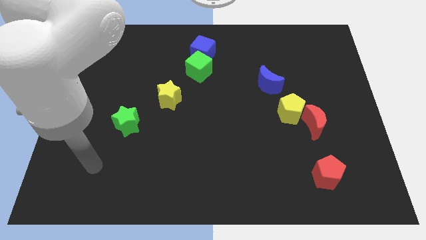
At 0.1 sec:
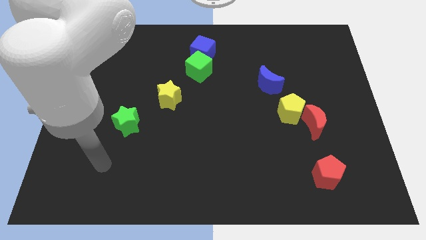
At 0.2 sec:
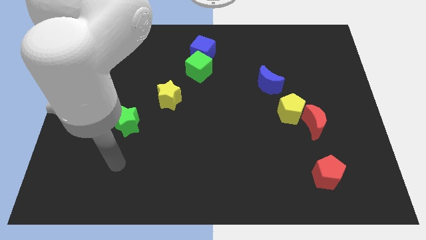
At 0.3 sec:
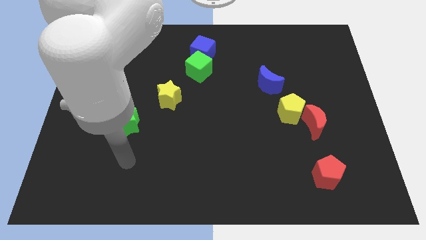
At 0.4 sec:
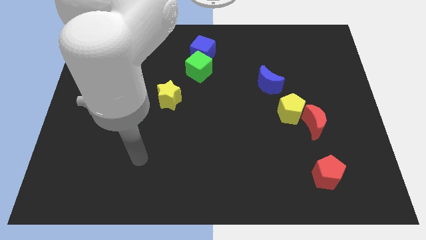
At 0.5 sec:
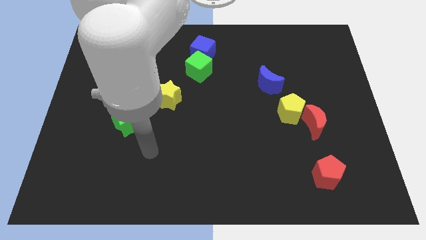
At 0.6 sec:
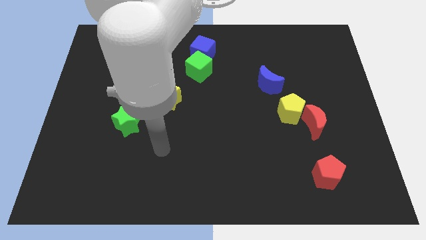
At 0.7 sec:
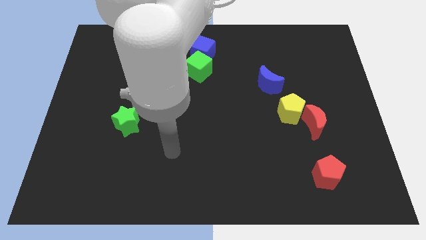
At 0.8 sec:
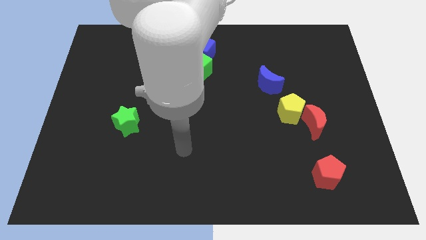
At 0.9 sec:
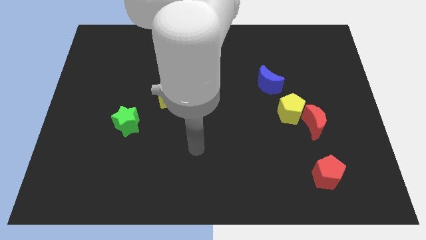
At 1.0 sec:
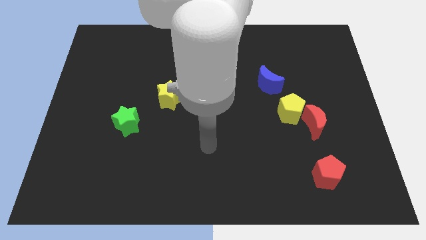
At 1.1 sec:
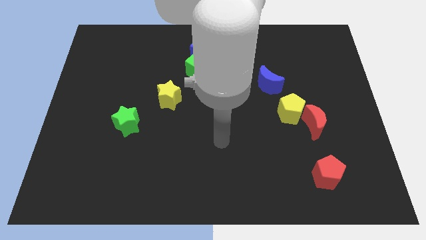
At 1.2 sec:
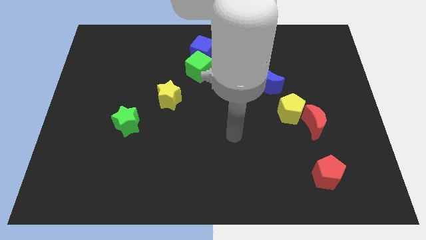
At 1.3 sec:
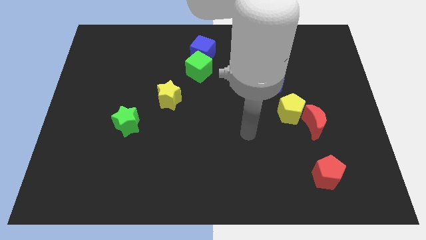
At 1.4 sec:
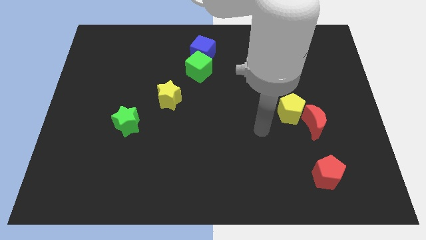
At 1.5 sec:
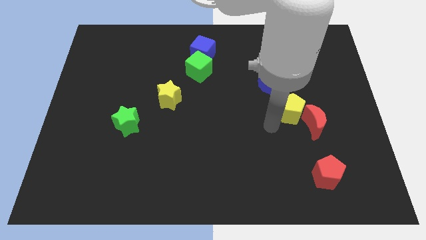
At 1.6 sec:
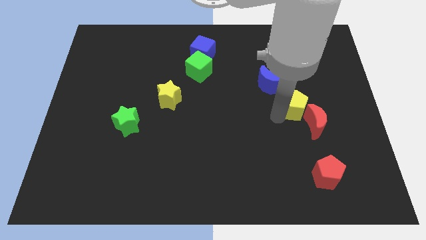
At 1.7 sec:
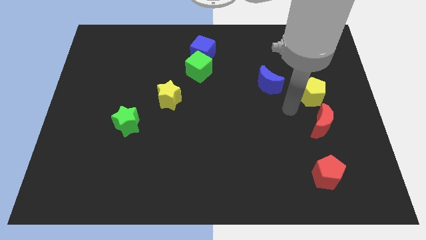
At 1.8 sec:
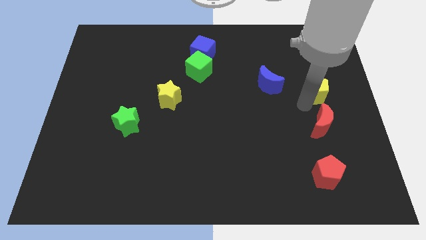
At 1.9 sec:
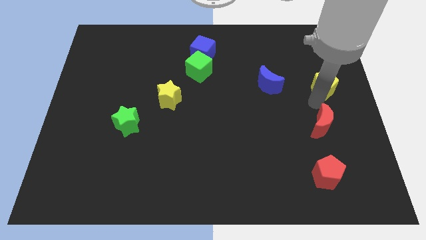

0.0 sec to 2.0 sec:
pull the red moon apart from the yellow pentagon

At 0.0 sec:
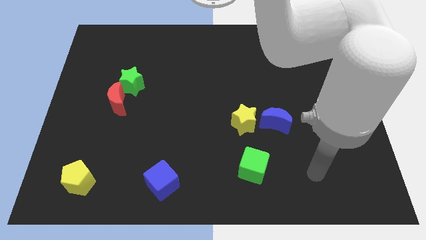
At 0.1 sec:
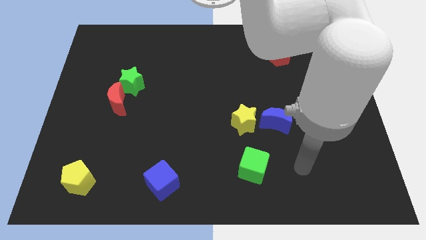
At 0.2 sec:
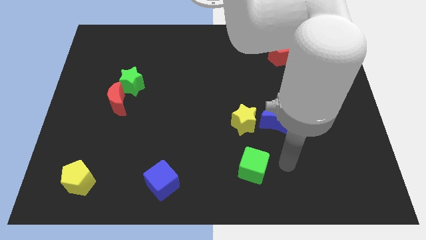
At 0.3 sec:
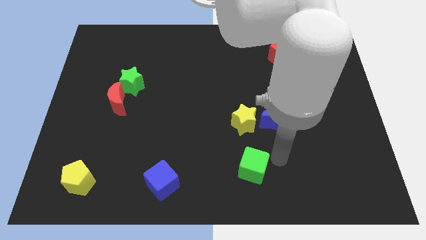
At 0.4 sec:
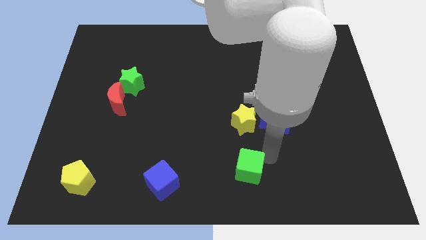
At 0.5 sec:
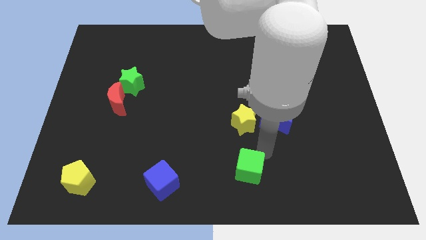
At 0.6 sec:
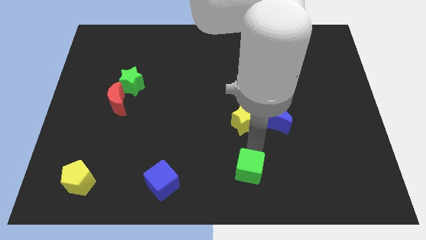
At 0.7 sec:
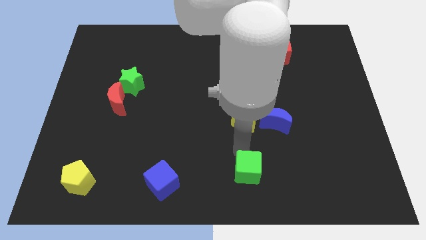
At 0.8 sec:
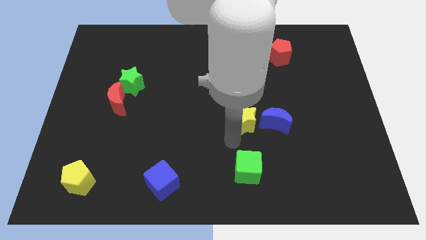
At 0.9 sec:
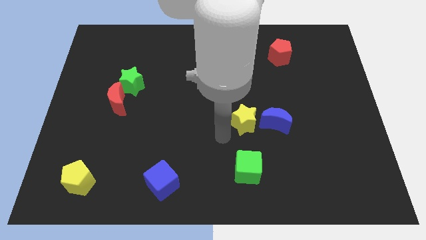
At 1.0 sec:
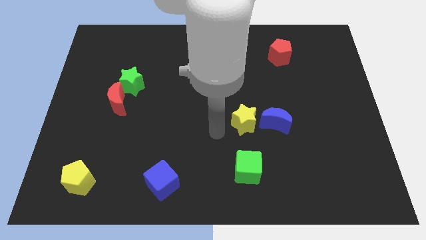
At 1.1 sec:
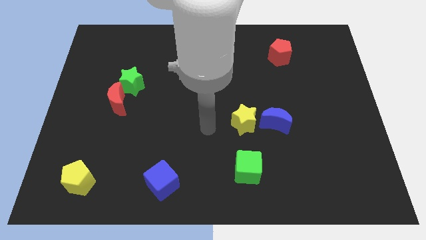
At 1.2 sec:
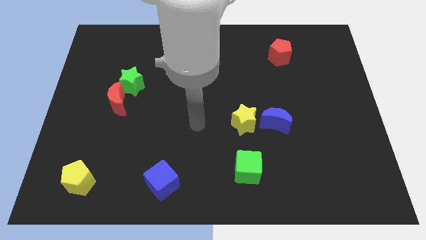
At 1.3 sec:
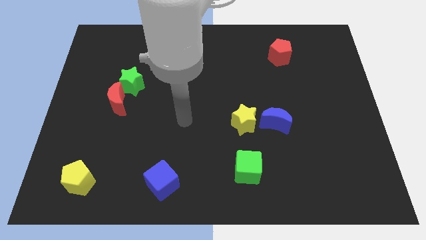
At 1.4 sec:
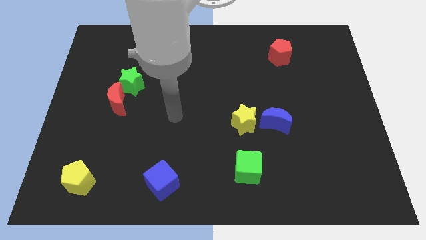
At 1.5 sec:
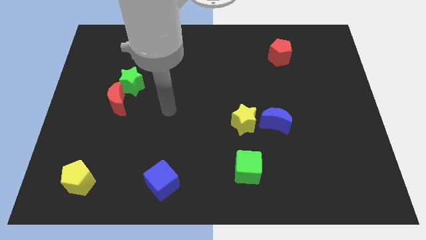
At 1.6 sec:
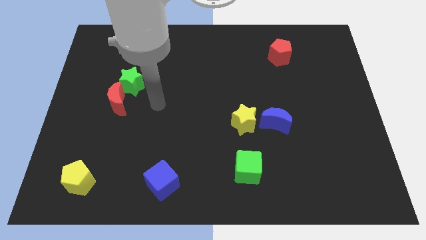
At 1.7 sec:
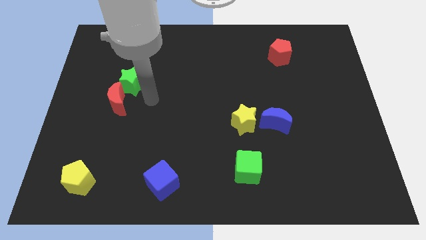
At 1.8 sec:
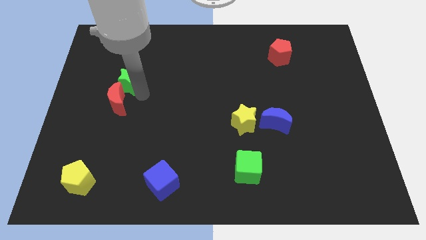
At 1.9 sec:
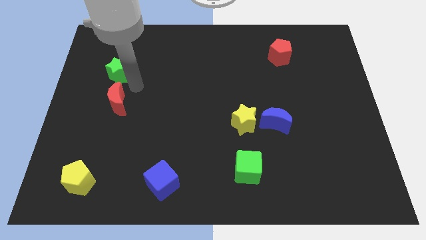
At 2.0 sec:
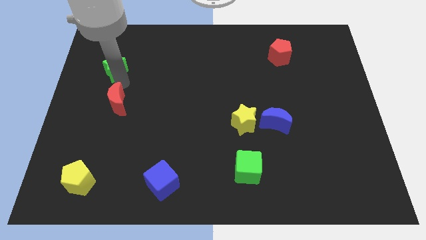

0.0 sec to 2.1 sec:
move the red moon away from the green star

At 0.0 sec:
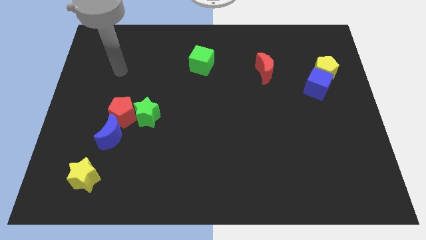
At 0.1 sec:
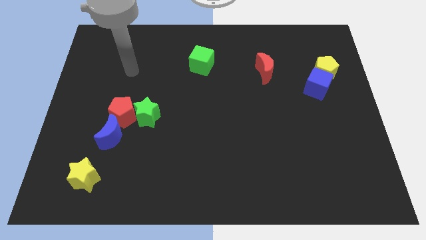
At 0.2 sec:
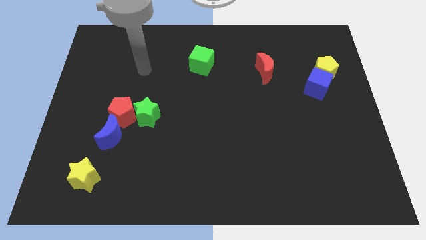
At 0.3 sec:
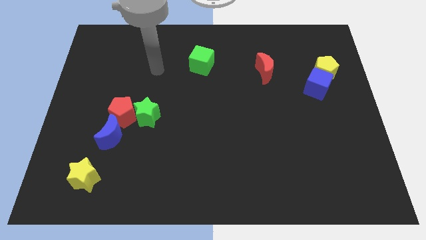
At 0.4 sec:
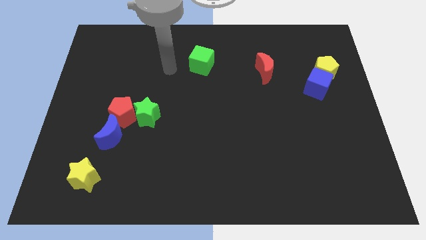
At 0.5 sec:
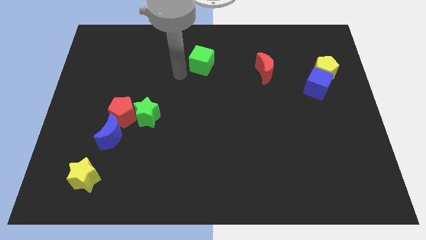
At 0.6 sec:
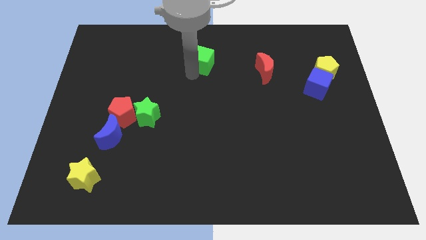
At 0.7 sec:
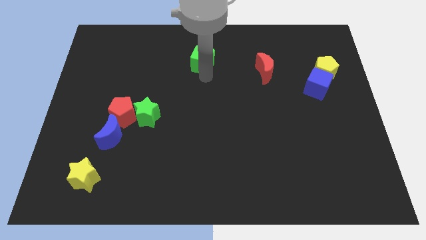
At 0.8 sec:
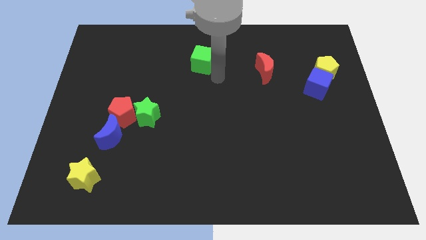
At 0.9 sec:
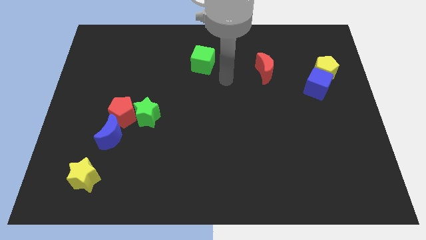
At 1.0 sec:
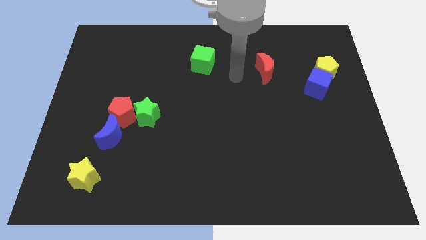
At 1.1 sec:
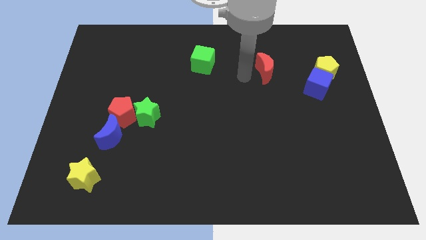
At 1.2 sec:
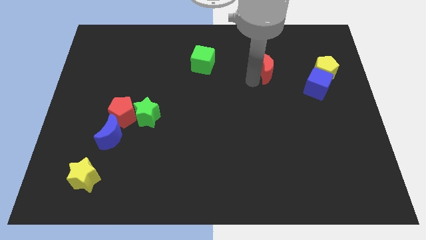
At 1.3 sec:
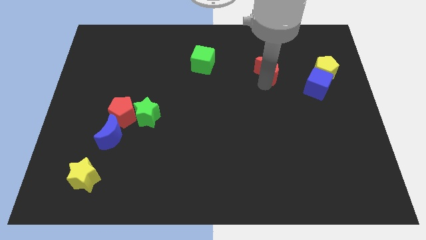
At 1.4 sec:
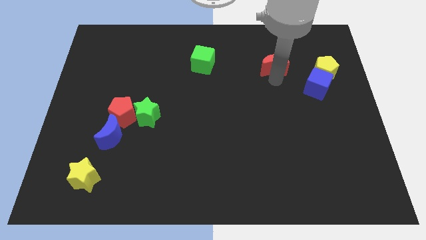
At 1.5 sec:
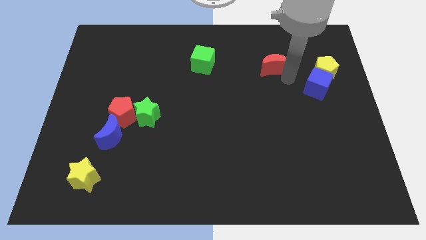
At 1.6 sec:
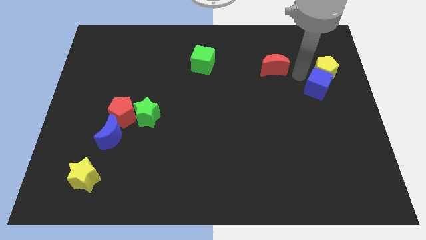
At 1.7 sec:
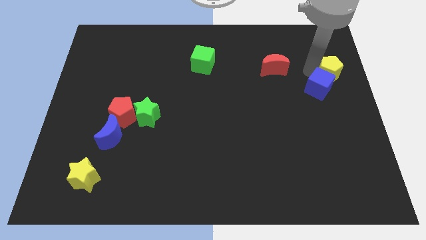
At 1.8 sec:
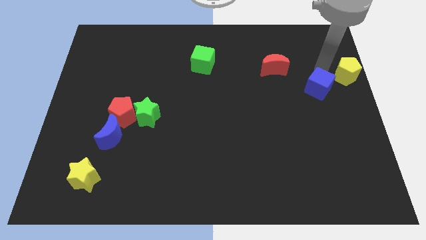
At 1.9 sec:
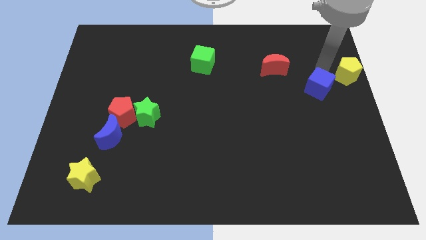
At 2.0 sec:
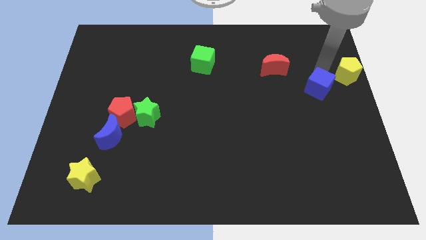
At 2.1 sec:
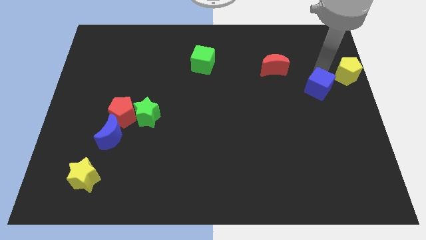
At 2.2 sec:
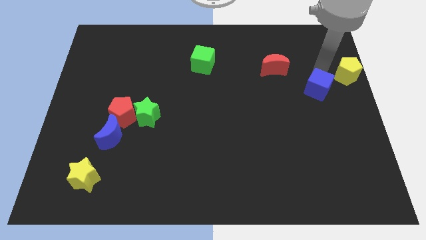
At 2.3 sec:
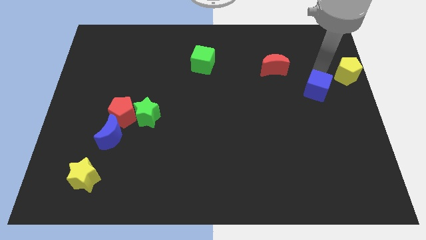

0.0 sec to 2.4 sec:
separate the blue cube from the yellow pentagon

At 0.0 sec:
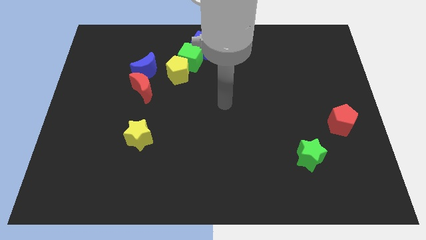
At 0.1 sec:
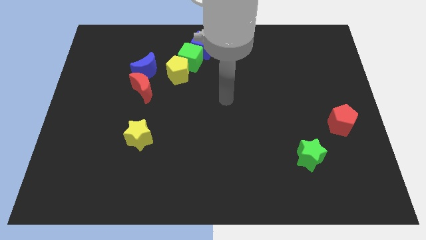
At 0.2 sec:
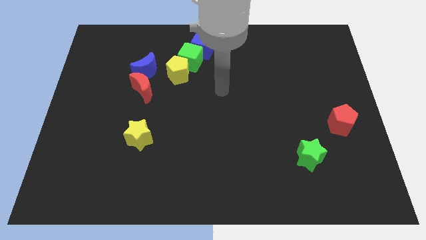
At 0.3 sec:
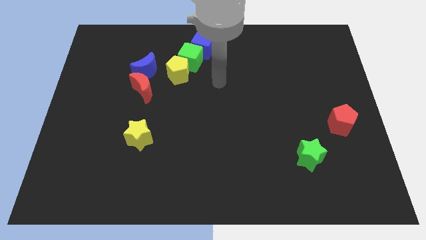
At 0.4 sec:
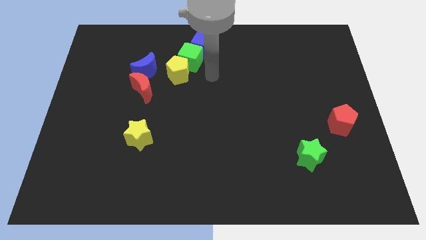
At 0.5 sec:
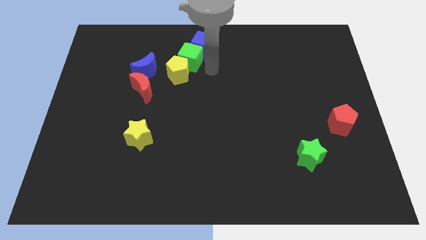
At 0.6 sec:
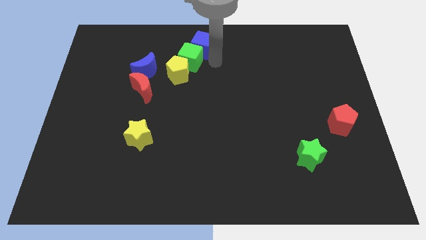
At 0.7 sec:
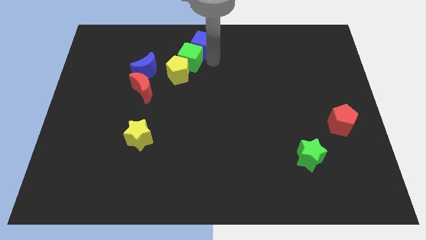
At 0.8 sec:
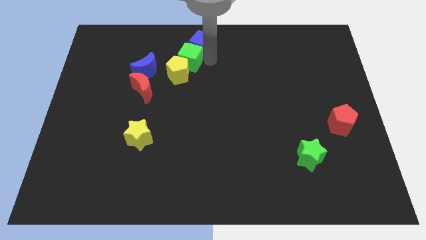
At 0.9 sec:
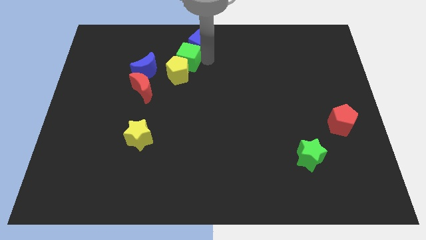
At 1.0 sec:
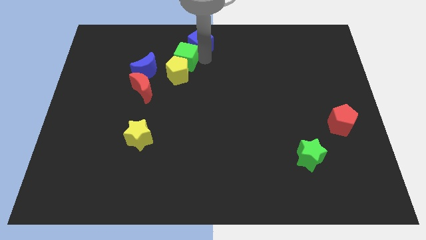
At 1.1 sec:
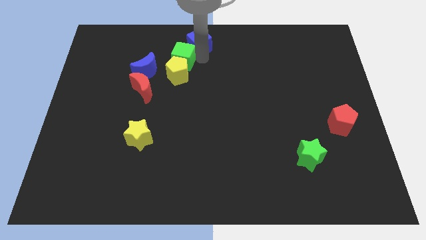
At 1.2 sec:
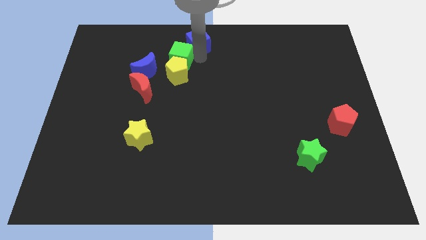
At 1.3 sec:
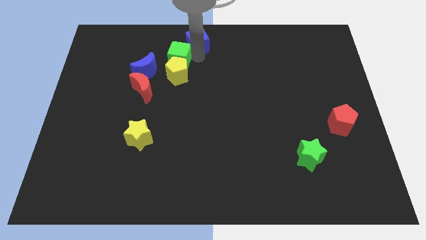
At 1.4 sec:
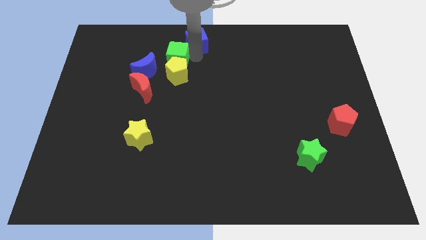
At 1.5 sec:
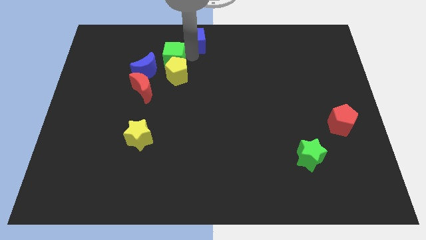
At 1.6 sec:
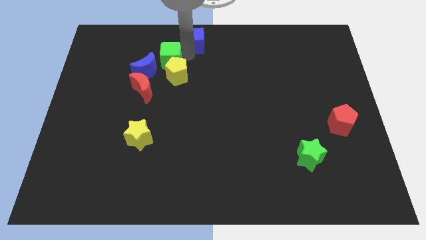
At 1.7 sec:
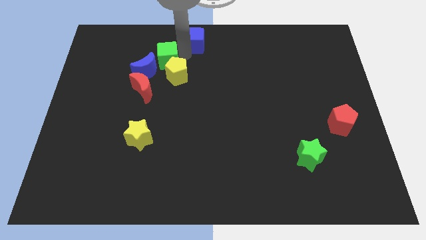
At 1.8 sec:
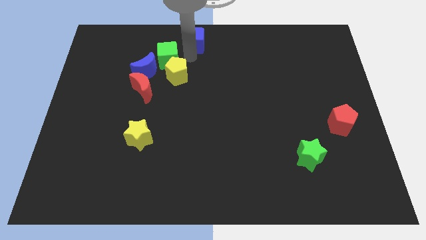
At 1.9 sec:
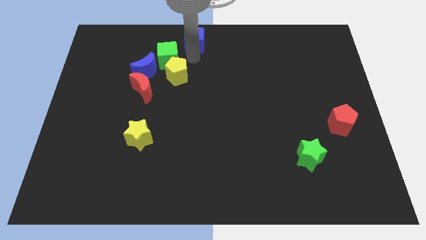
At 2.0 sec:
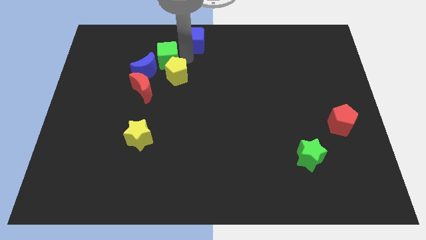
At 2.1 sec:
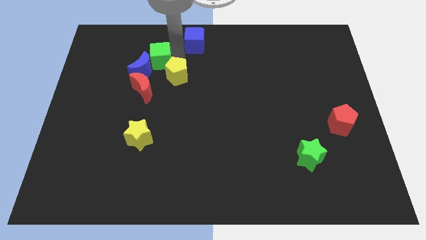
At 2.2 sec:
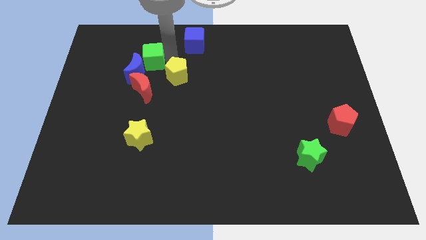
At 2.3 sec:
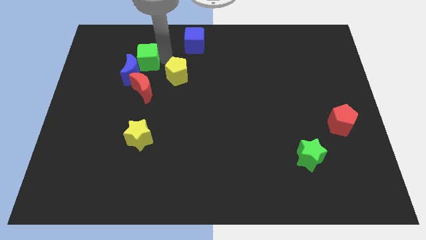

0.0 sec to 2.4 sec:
separate the green cube from the yellow pentagon and blue cube

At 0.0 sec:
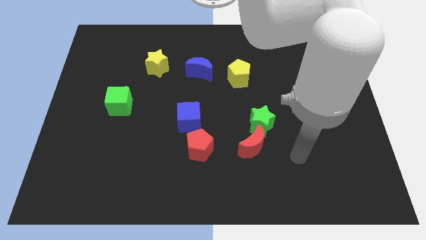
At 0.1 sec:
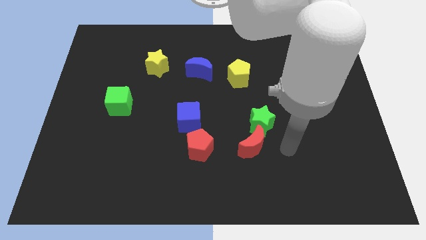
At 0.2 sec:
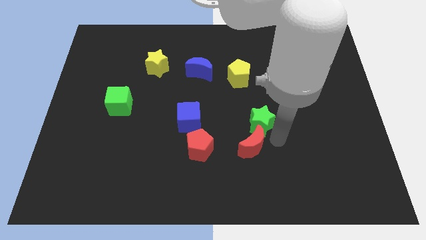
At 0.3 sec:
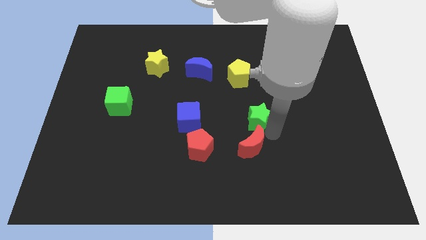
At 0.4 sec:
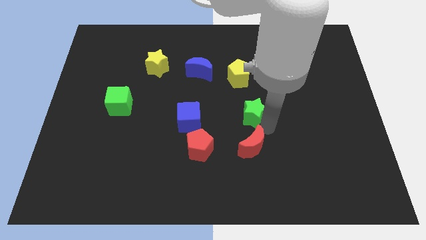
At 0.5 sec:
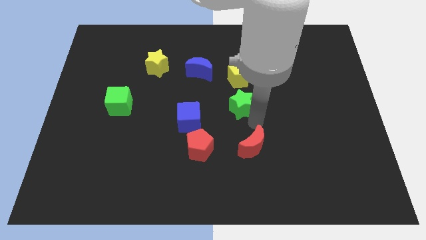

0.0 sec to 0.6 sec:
separate the red moon from the green star
